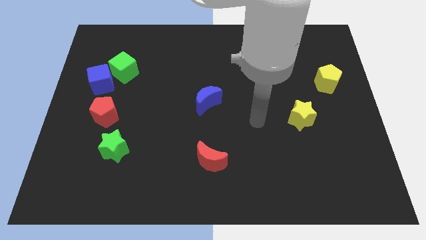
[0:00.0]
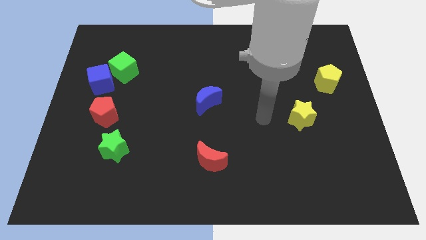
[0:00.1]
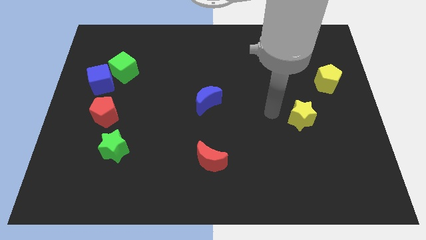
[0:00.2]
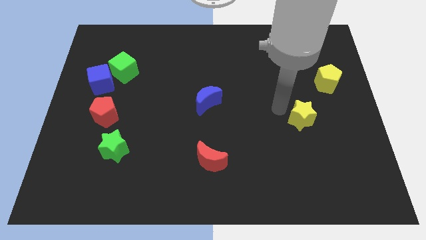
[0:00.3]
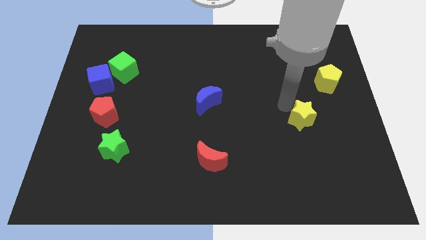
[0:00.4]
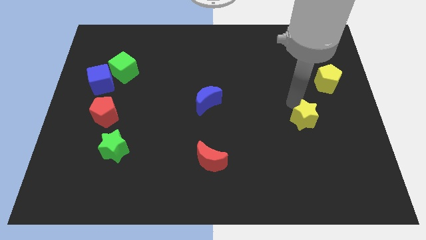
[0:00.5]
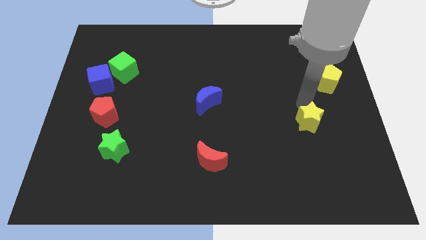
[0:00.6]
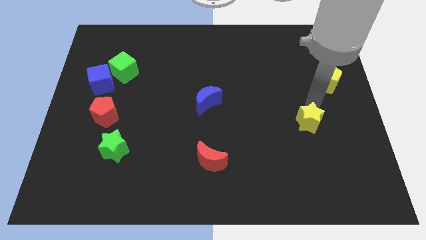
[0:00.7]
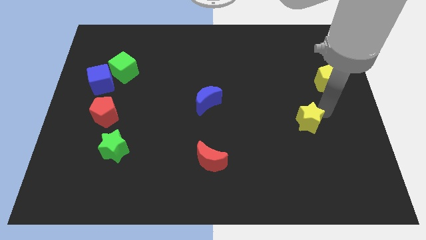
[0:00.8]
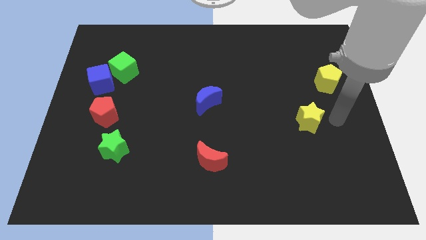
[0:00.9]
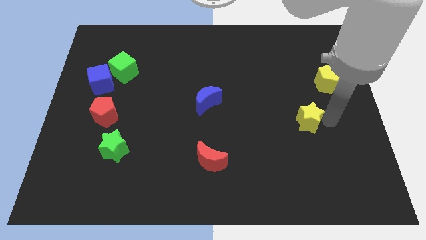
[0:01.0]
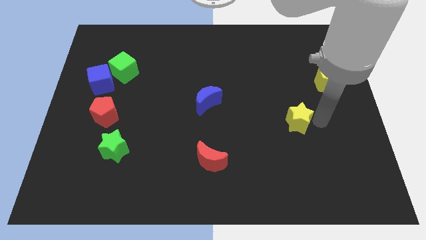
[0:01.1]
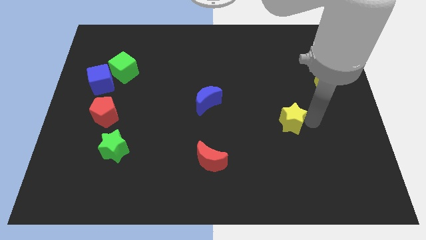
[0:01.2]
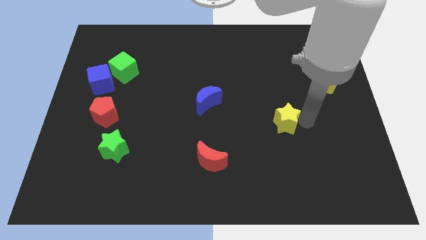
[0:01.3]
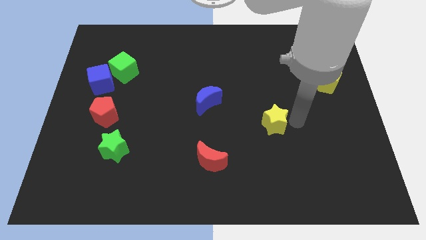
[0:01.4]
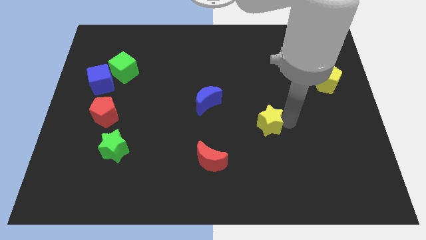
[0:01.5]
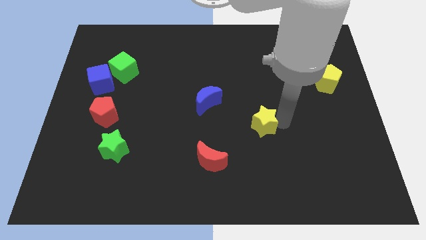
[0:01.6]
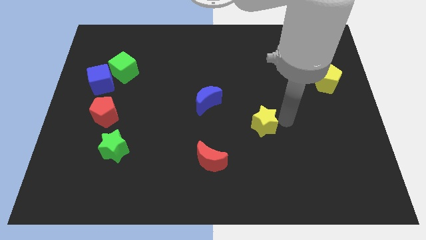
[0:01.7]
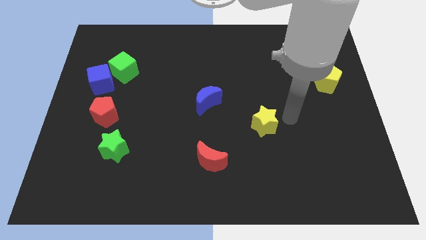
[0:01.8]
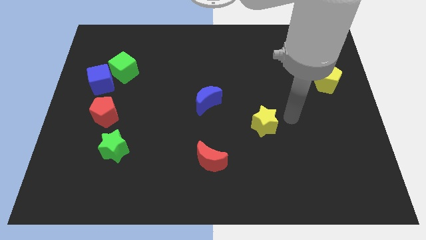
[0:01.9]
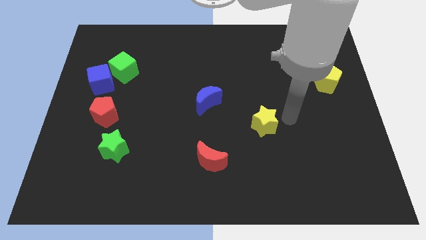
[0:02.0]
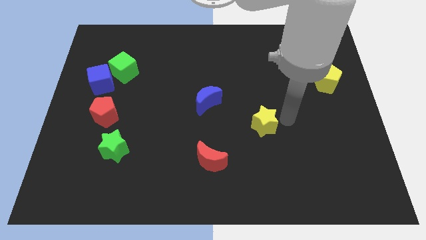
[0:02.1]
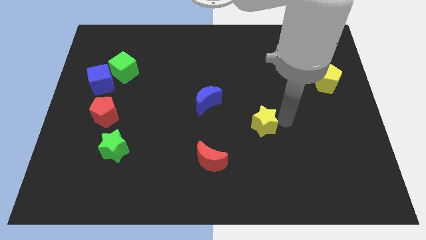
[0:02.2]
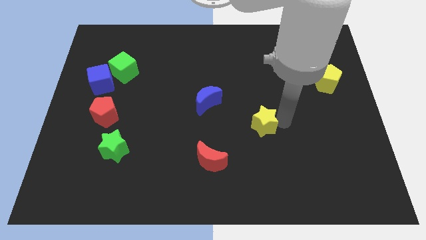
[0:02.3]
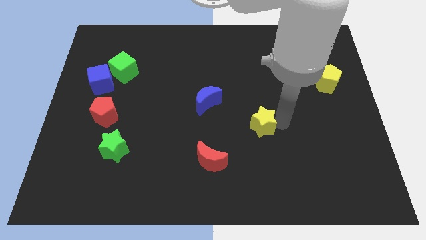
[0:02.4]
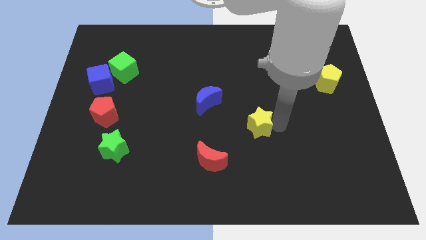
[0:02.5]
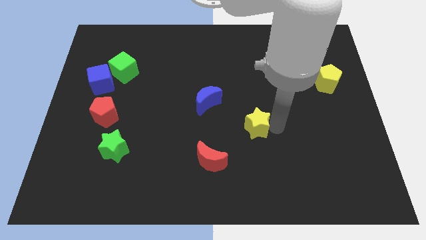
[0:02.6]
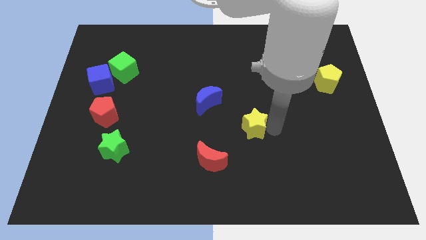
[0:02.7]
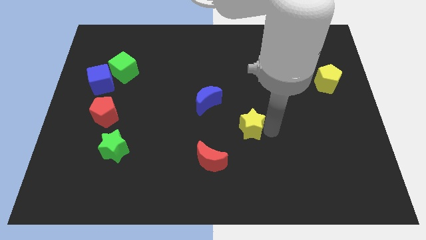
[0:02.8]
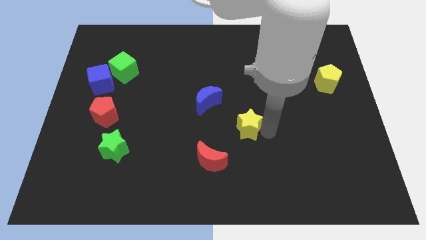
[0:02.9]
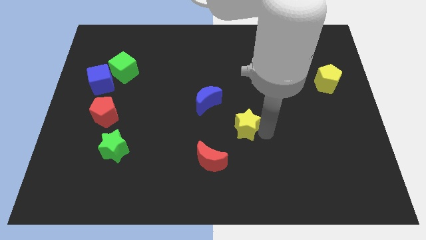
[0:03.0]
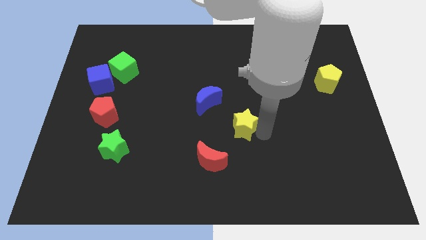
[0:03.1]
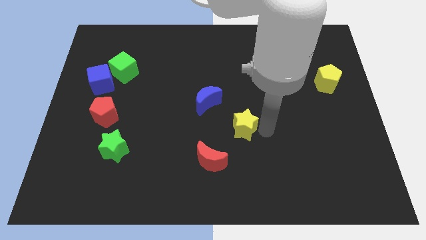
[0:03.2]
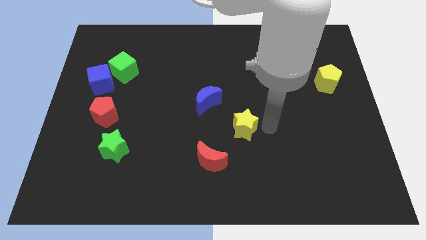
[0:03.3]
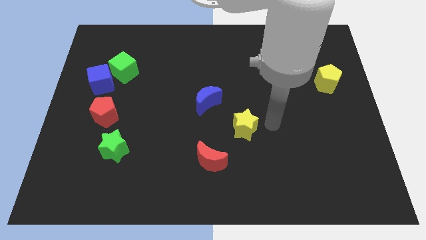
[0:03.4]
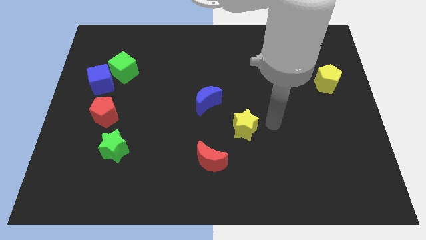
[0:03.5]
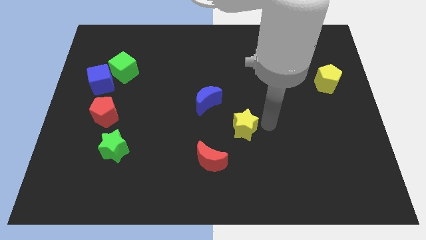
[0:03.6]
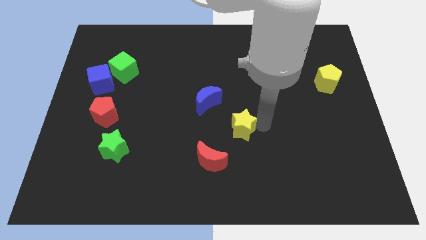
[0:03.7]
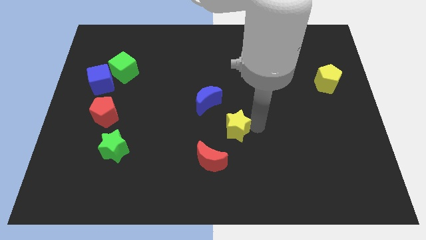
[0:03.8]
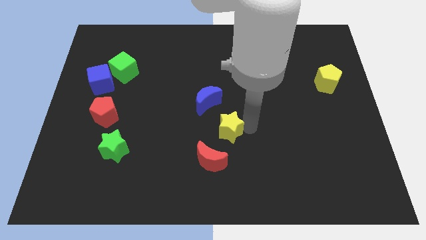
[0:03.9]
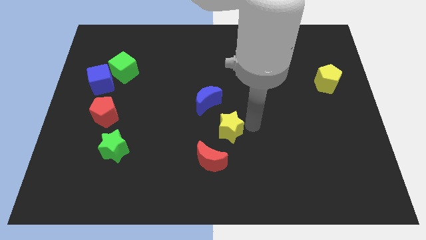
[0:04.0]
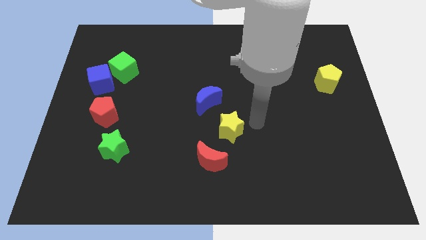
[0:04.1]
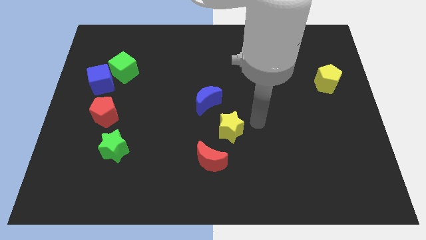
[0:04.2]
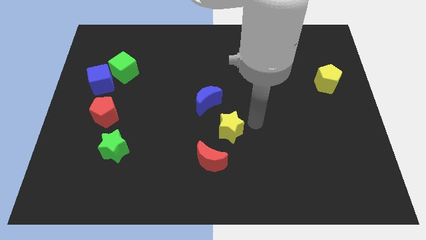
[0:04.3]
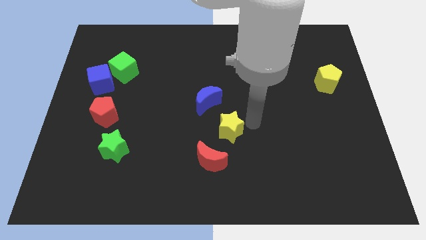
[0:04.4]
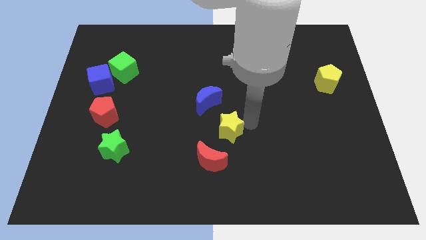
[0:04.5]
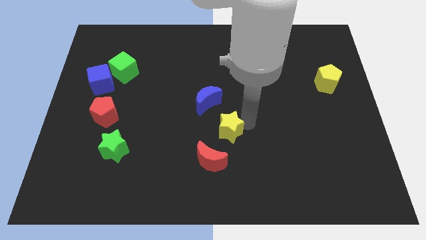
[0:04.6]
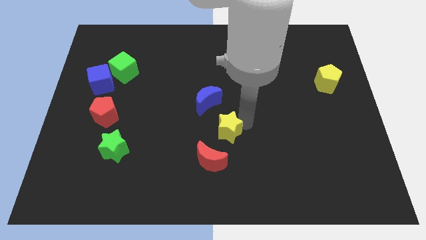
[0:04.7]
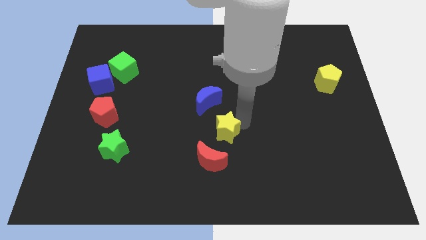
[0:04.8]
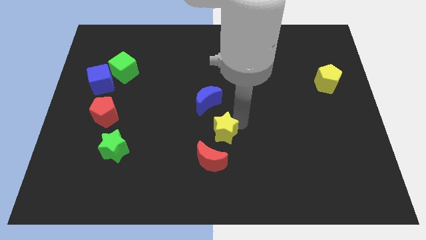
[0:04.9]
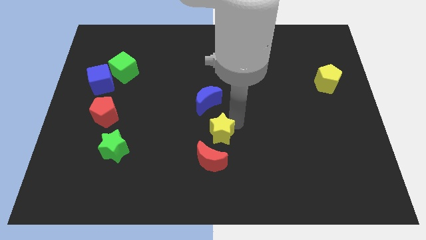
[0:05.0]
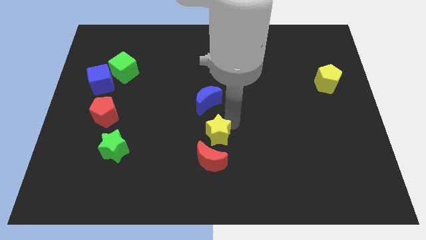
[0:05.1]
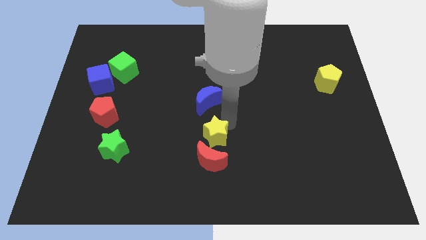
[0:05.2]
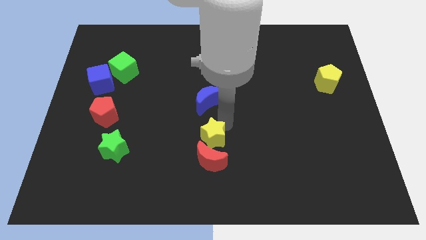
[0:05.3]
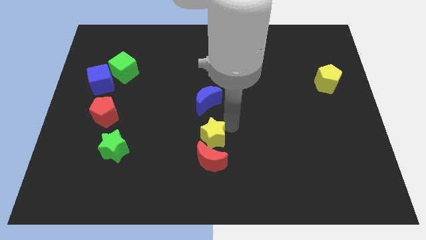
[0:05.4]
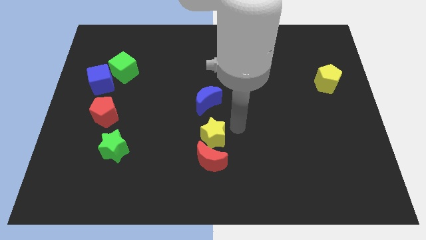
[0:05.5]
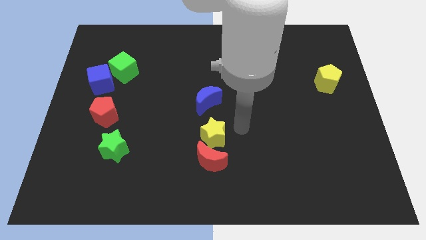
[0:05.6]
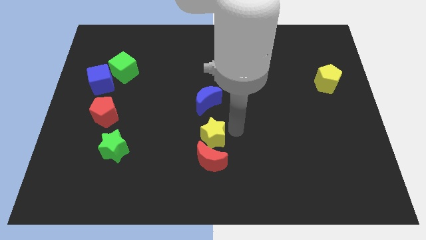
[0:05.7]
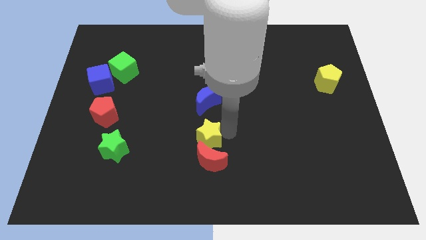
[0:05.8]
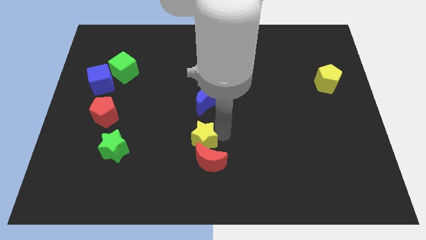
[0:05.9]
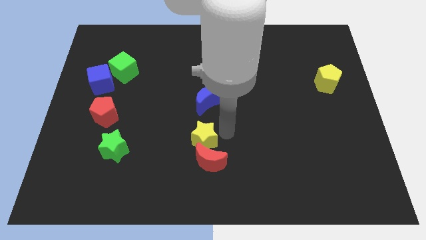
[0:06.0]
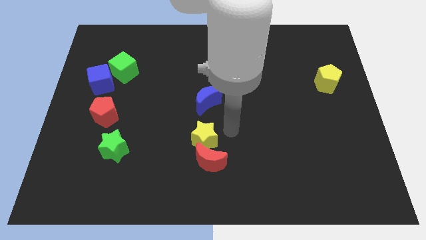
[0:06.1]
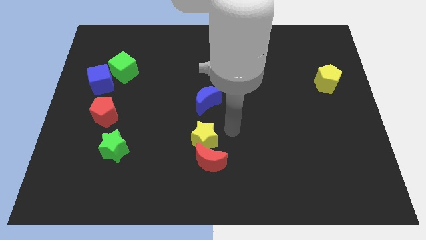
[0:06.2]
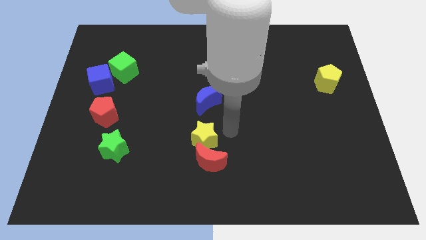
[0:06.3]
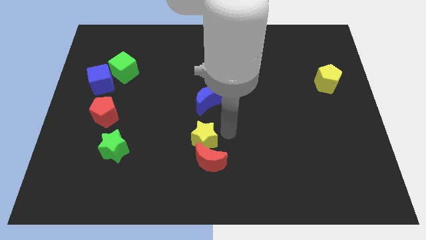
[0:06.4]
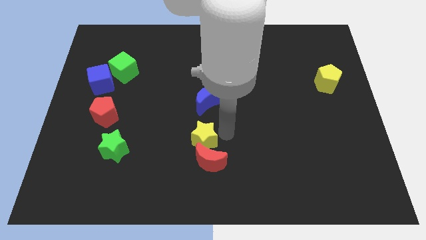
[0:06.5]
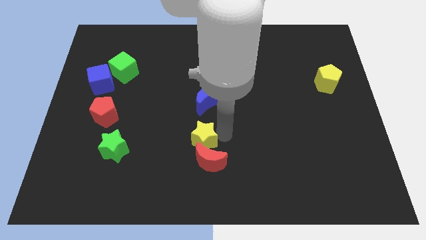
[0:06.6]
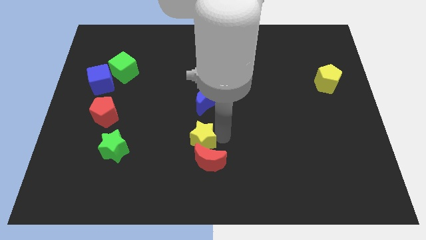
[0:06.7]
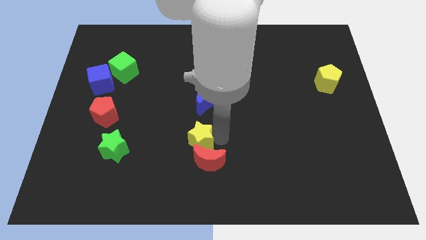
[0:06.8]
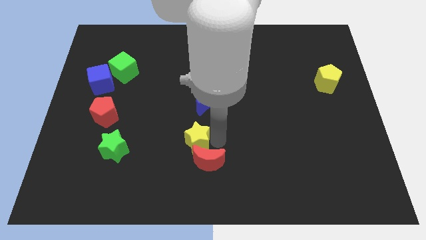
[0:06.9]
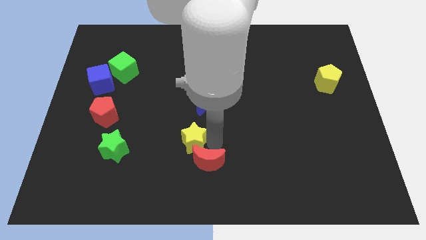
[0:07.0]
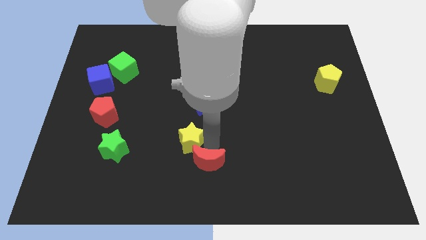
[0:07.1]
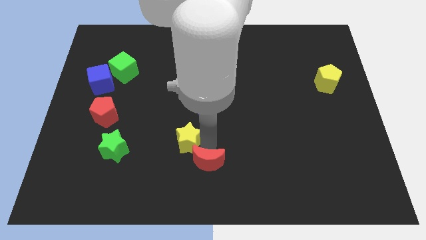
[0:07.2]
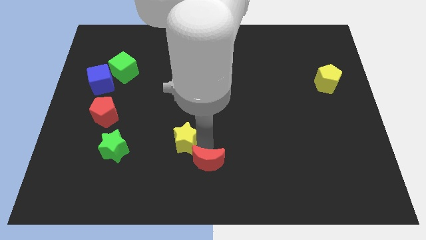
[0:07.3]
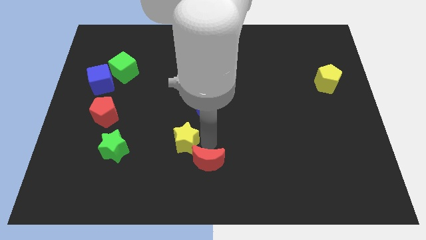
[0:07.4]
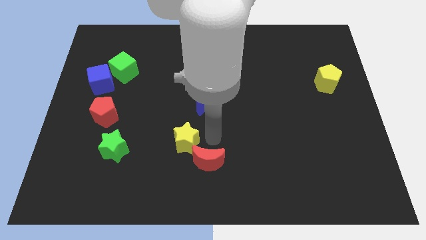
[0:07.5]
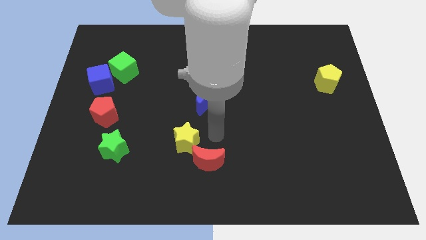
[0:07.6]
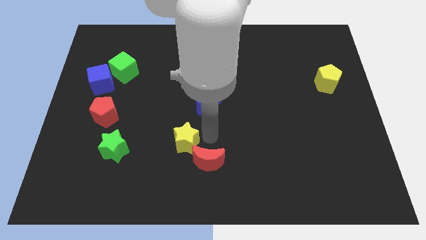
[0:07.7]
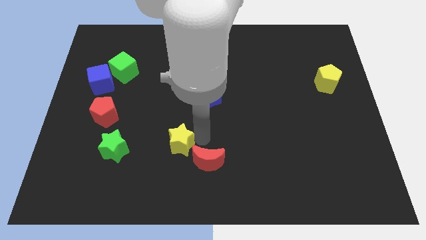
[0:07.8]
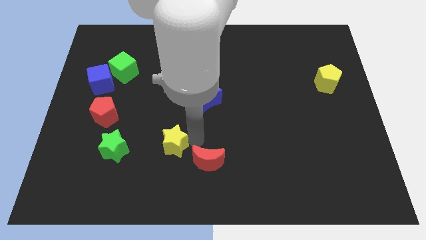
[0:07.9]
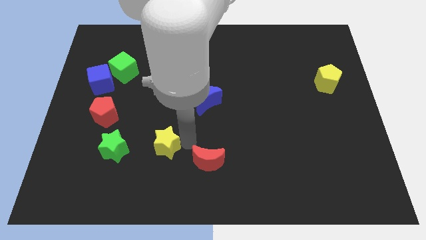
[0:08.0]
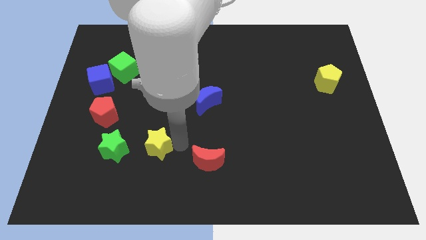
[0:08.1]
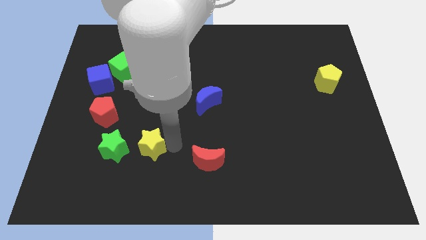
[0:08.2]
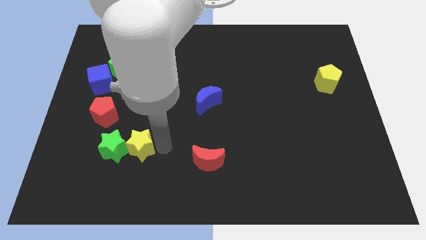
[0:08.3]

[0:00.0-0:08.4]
move the yellow star close to the green star
